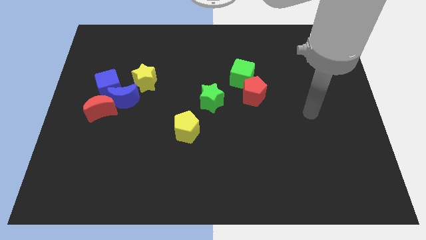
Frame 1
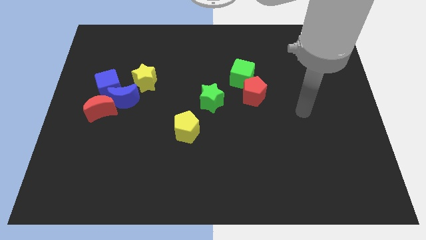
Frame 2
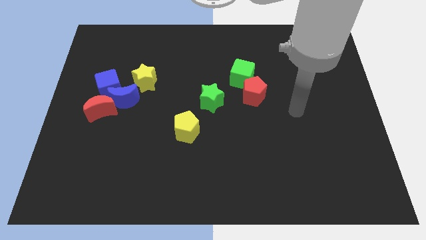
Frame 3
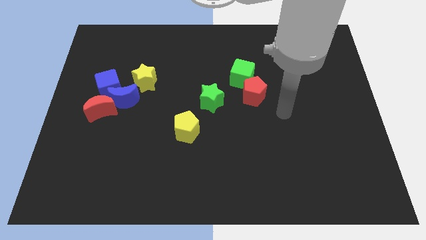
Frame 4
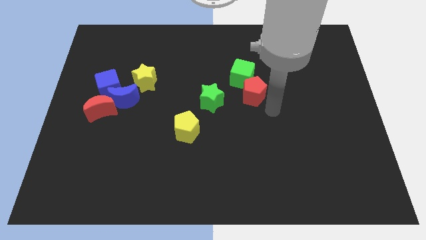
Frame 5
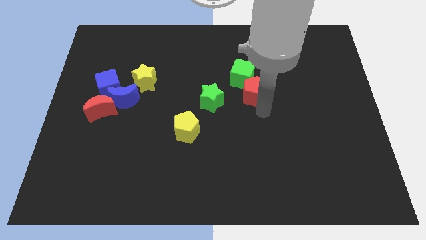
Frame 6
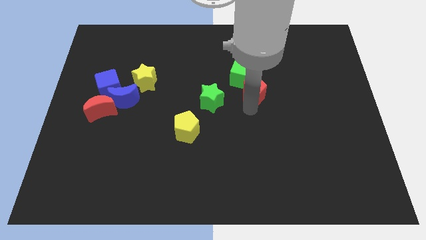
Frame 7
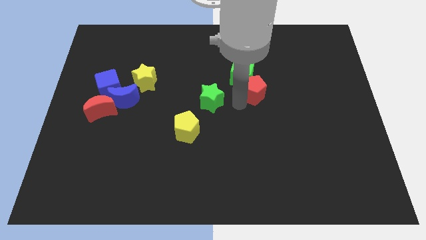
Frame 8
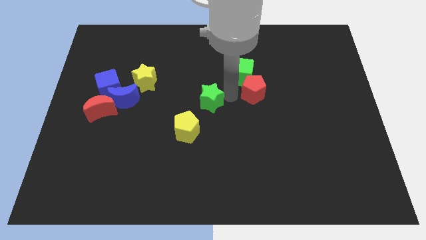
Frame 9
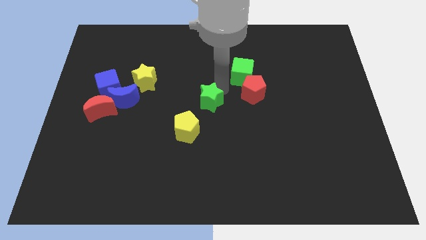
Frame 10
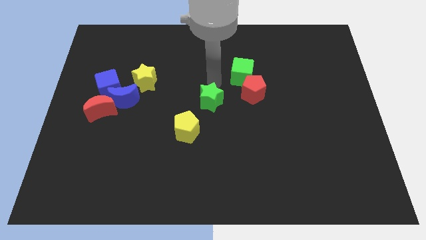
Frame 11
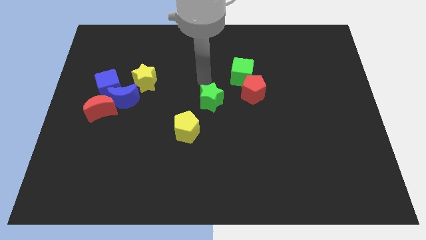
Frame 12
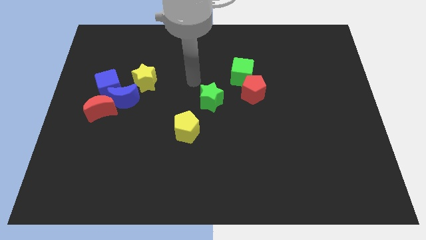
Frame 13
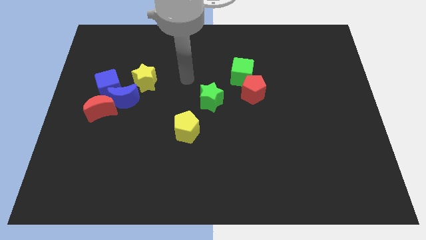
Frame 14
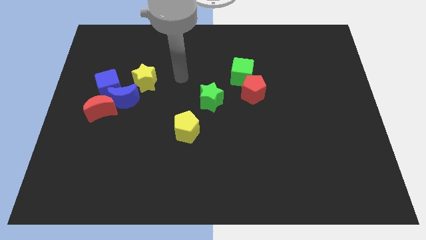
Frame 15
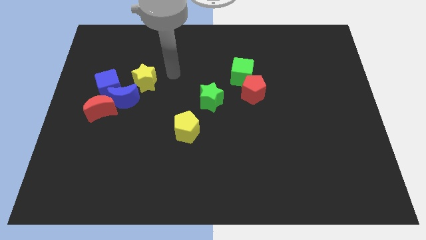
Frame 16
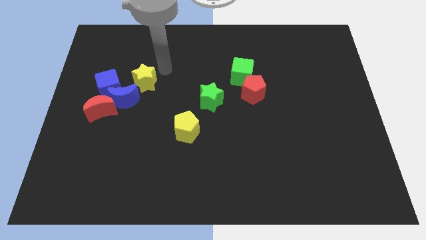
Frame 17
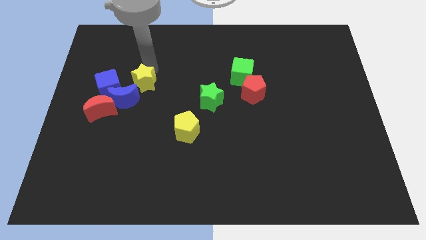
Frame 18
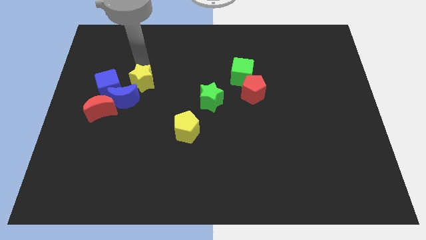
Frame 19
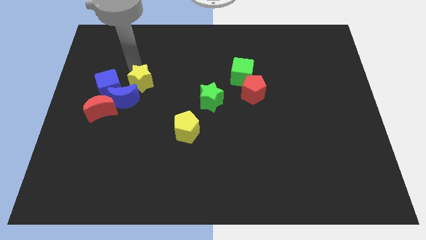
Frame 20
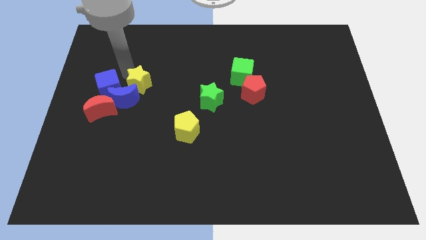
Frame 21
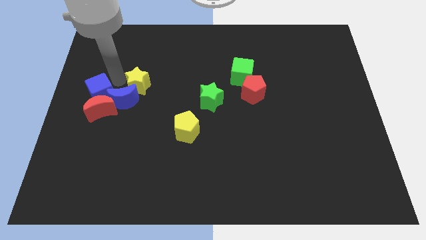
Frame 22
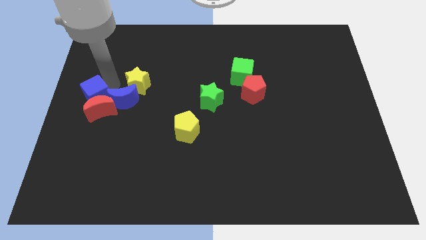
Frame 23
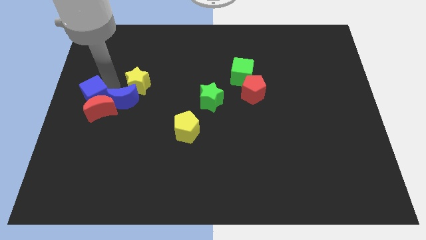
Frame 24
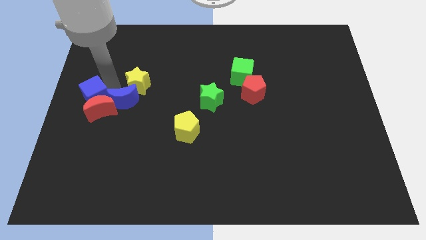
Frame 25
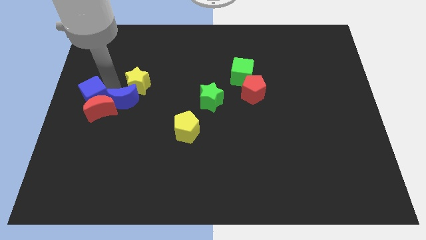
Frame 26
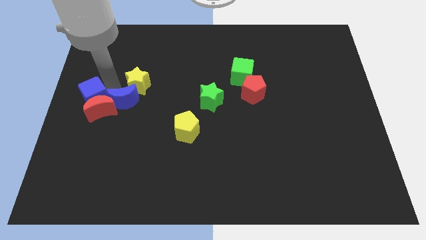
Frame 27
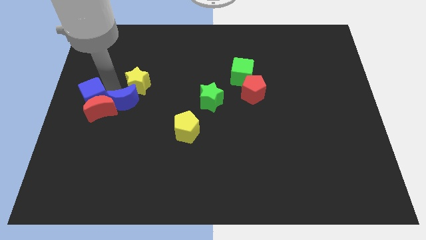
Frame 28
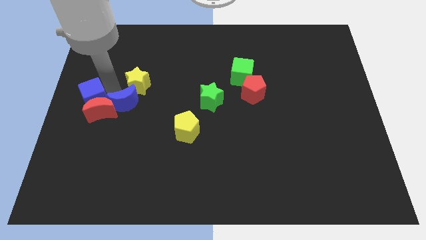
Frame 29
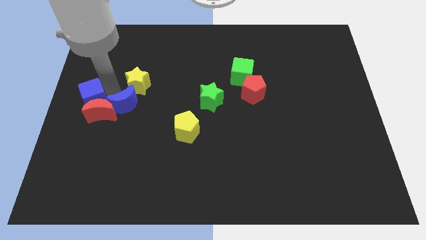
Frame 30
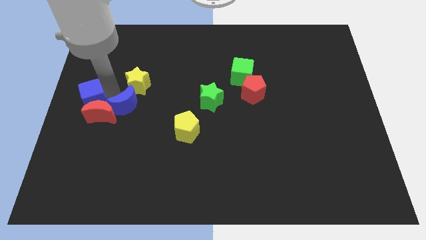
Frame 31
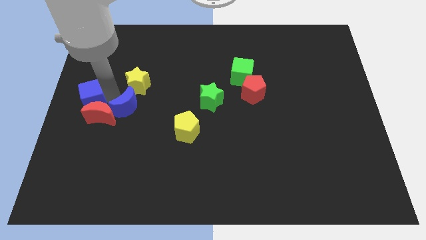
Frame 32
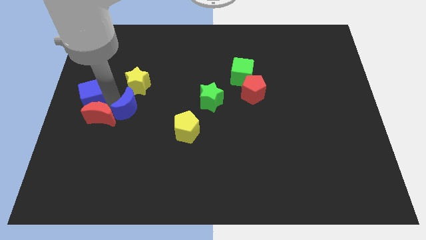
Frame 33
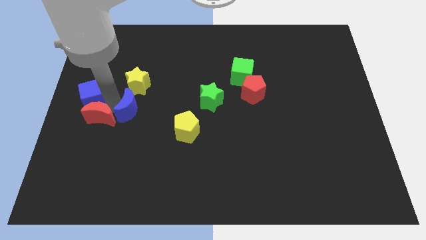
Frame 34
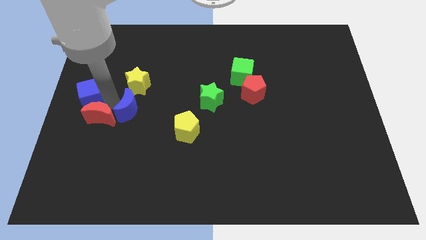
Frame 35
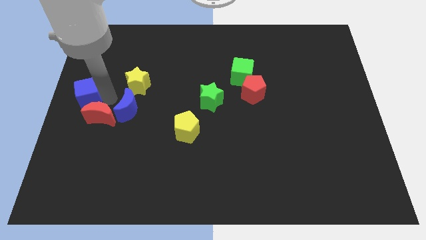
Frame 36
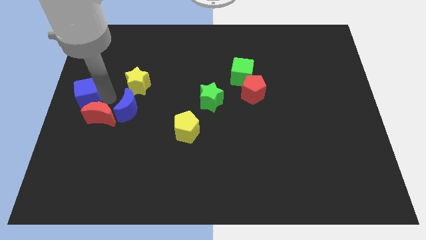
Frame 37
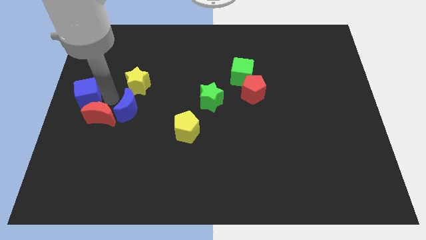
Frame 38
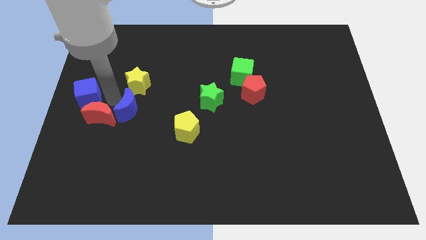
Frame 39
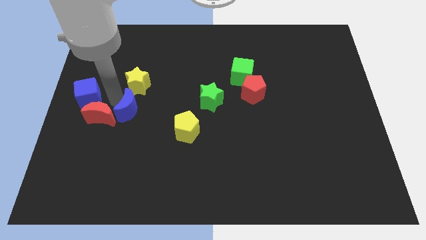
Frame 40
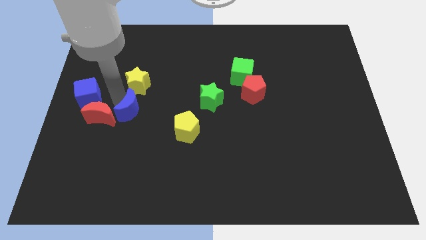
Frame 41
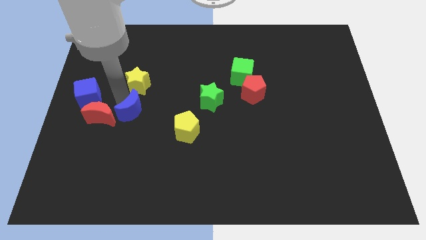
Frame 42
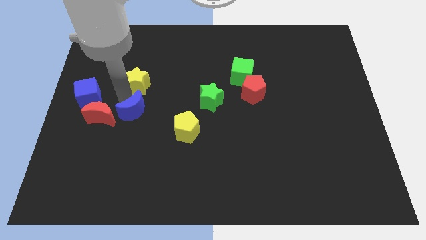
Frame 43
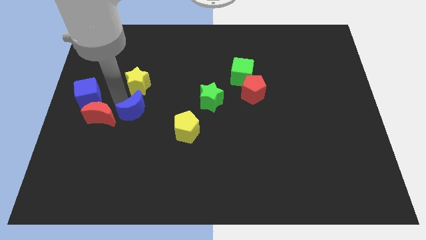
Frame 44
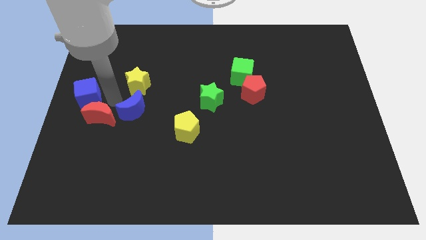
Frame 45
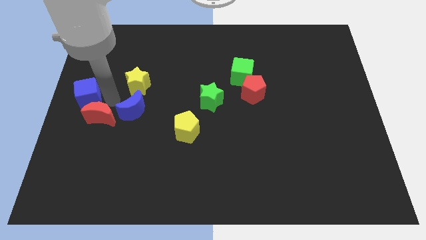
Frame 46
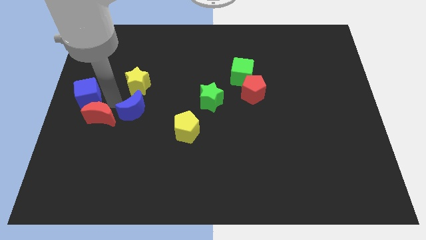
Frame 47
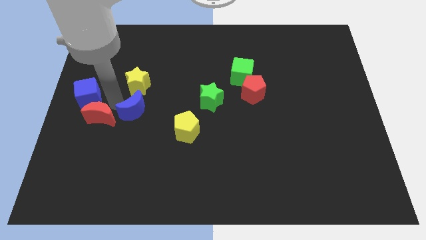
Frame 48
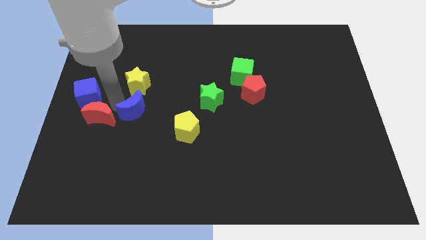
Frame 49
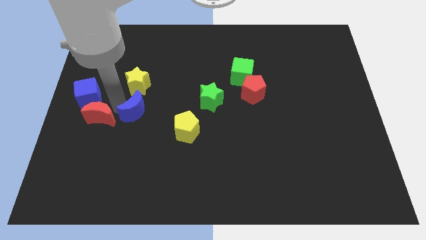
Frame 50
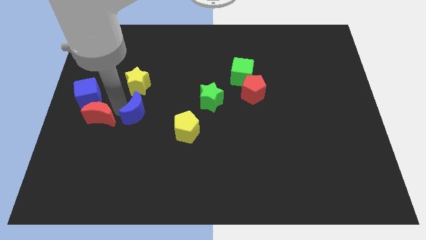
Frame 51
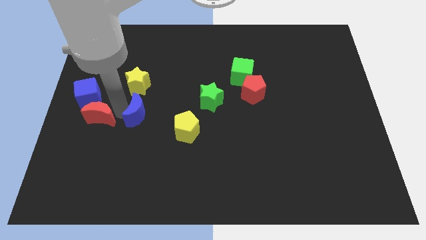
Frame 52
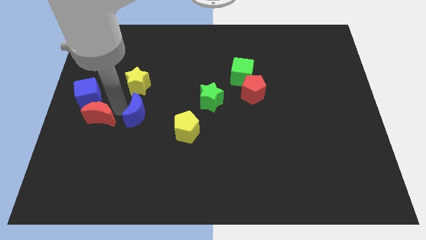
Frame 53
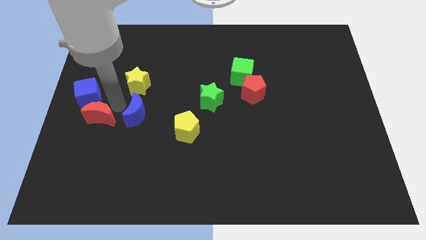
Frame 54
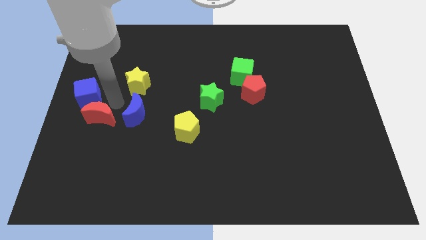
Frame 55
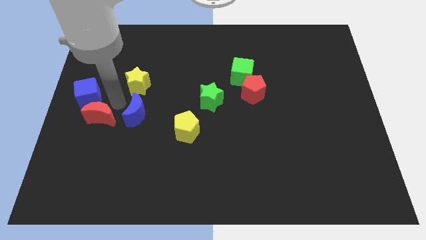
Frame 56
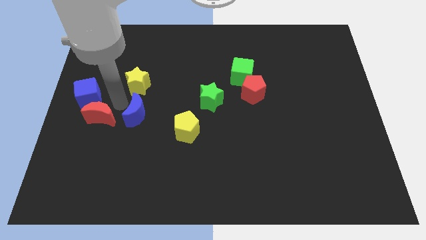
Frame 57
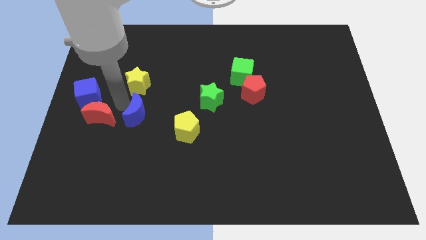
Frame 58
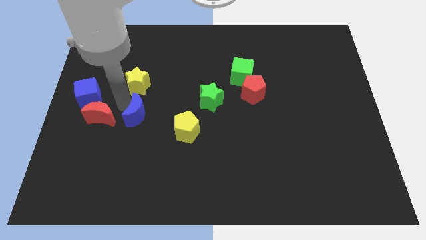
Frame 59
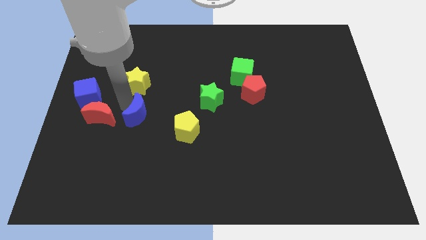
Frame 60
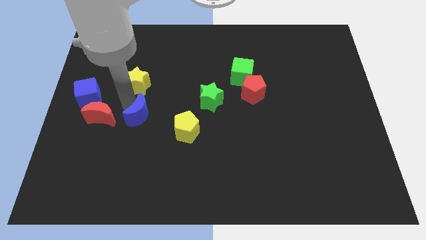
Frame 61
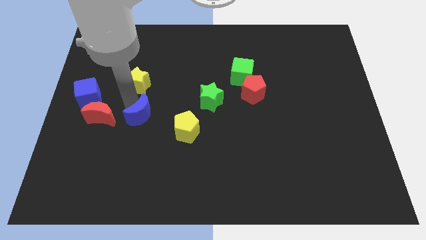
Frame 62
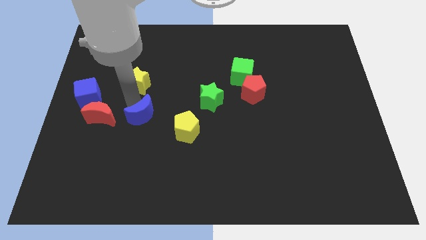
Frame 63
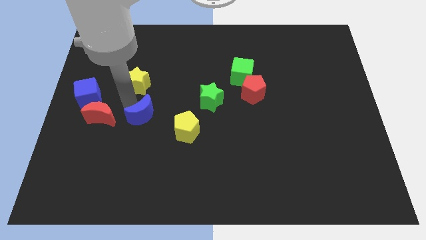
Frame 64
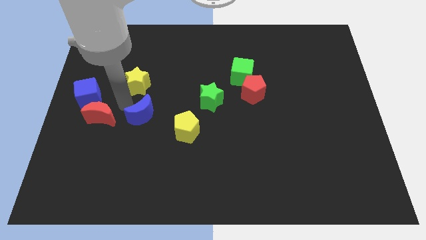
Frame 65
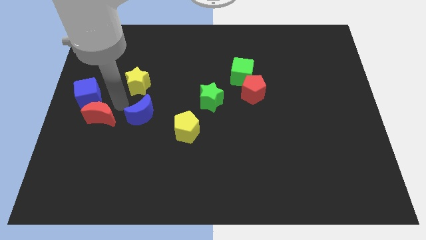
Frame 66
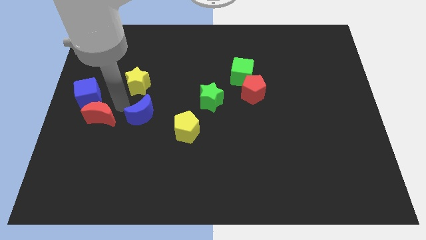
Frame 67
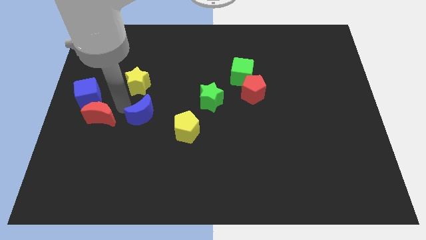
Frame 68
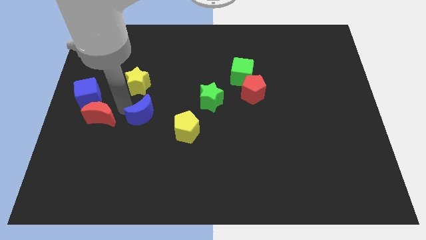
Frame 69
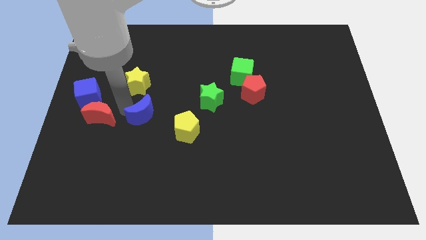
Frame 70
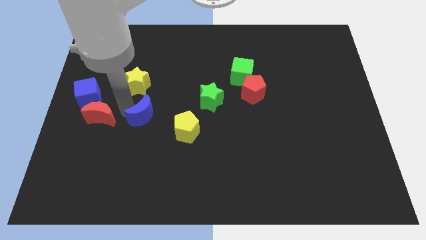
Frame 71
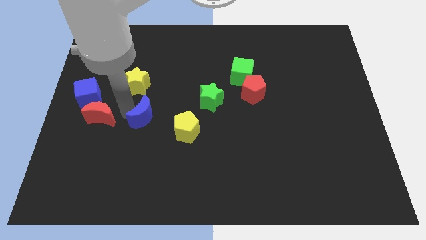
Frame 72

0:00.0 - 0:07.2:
separate the blue moon from the blue cube, red moon, and yellow star

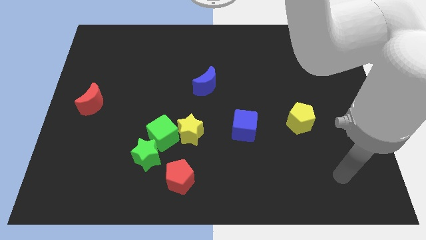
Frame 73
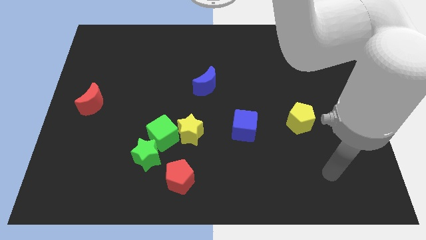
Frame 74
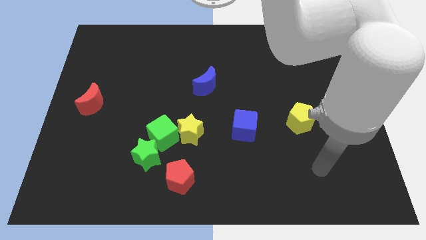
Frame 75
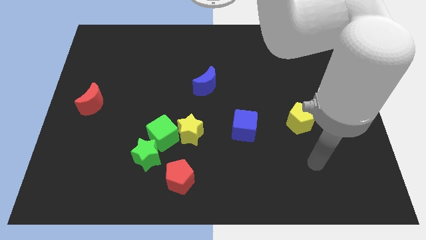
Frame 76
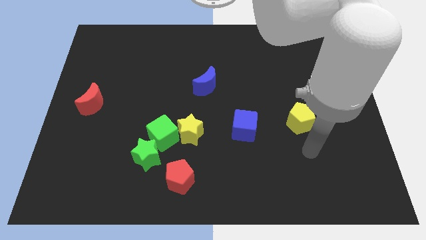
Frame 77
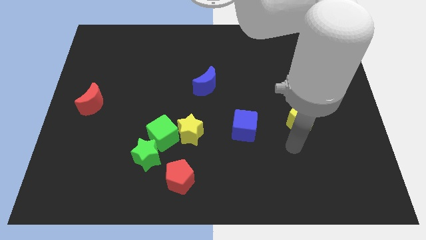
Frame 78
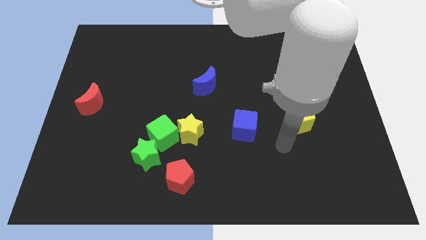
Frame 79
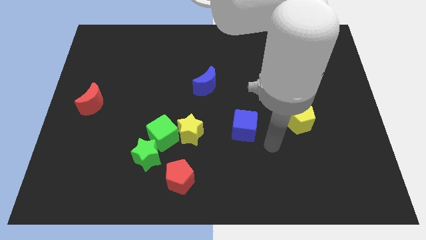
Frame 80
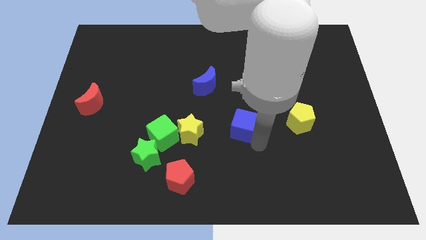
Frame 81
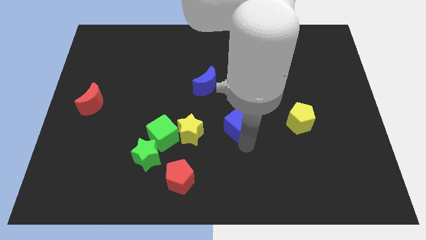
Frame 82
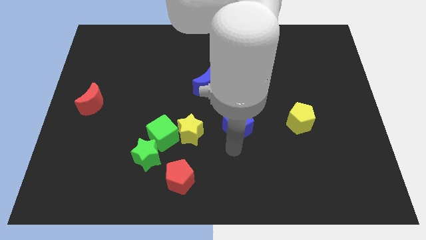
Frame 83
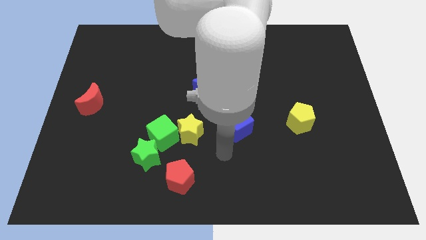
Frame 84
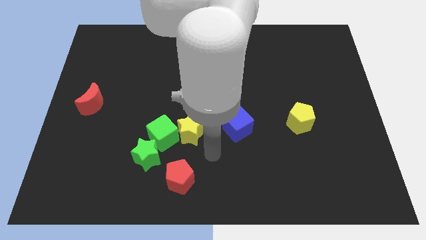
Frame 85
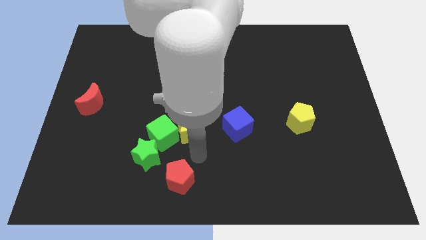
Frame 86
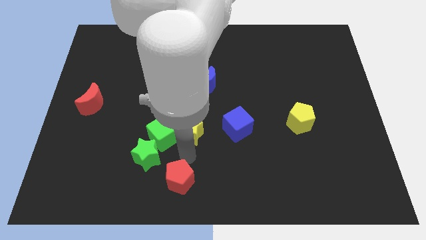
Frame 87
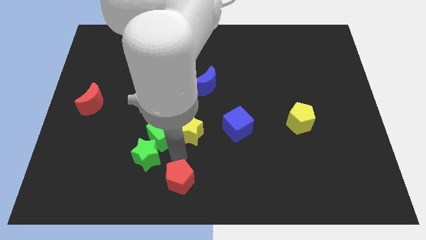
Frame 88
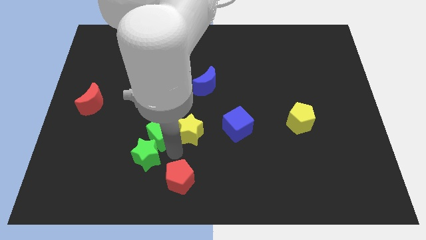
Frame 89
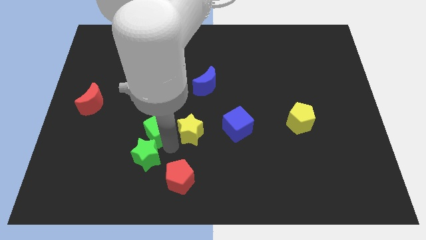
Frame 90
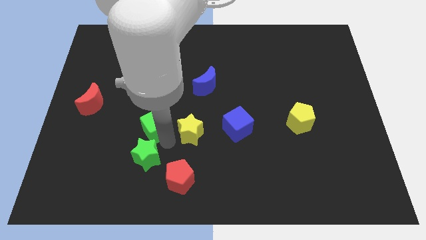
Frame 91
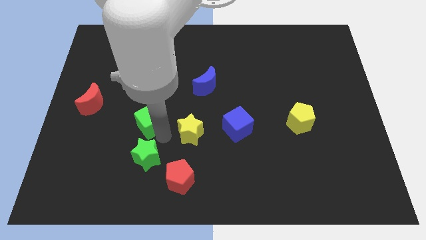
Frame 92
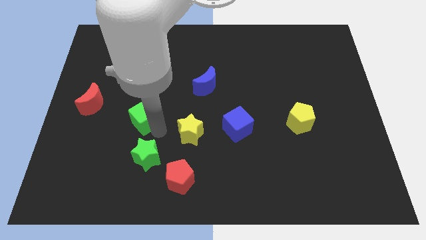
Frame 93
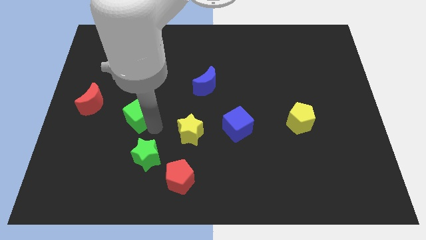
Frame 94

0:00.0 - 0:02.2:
pull the green cube apart from the yellow star and green star
